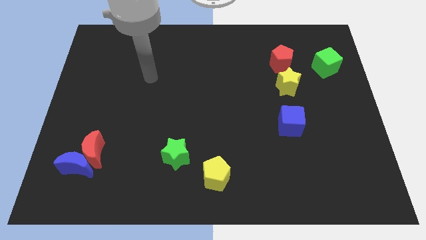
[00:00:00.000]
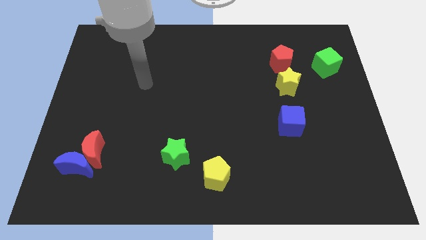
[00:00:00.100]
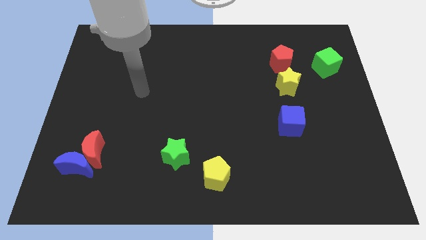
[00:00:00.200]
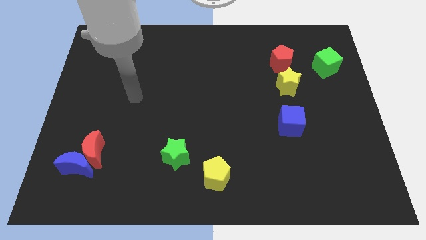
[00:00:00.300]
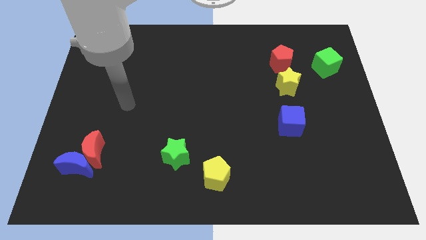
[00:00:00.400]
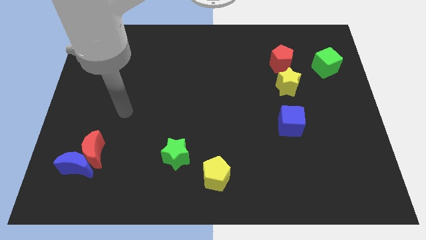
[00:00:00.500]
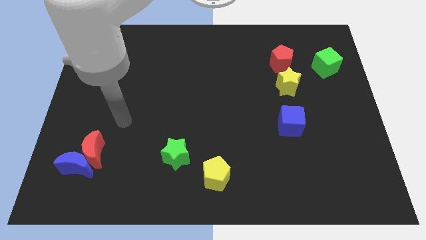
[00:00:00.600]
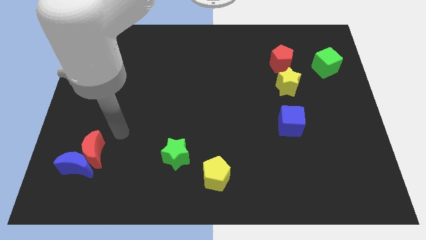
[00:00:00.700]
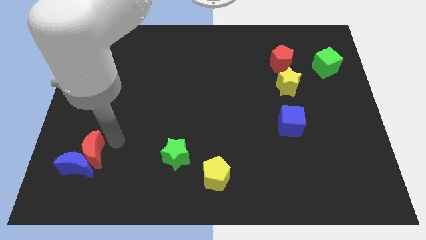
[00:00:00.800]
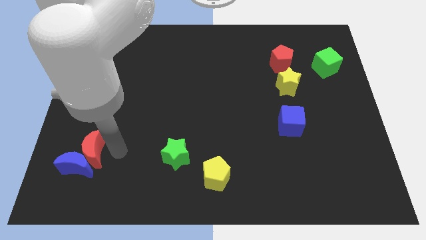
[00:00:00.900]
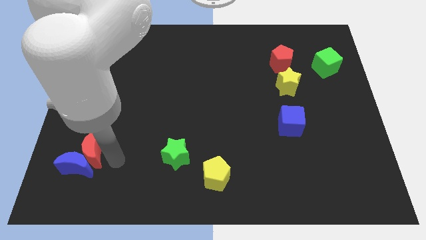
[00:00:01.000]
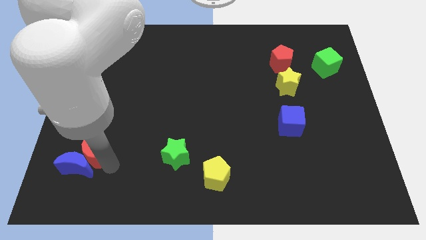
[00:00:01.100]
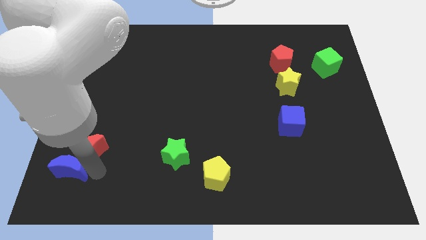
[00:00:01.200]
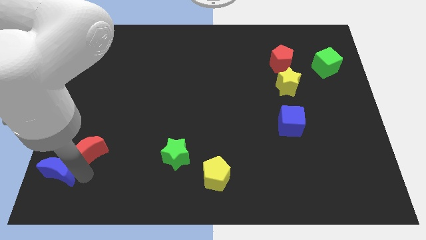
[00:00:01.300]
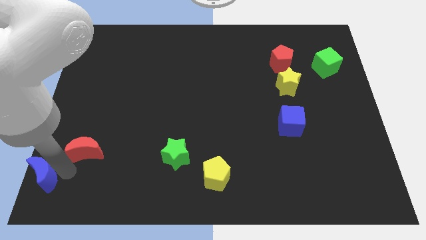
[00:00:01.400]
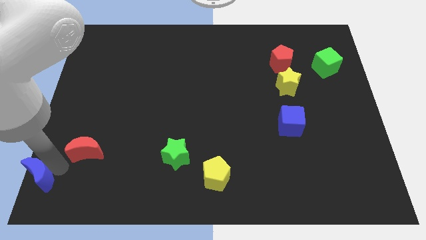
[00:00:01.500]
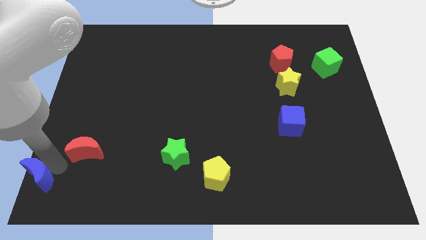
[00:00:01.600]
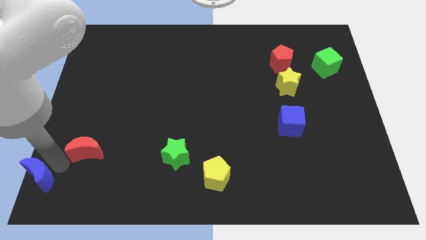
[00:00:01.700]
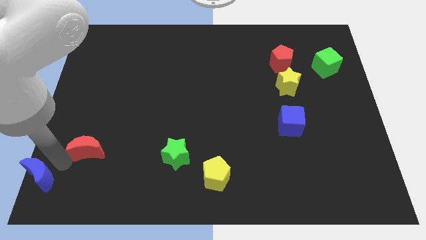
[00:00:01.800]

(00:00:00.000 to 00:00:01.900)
move the red moon away from the blue moon

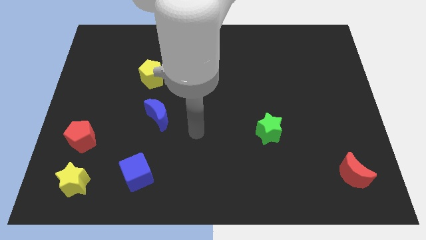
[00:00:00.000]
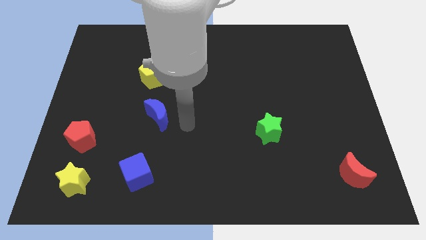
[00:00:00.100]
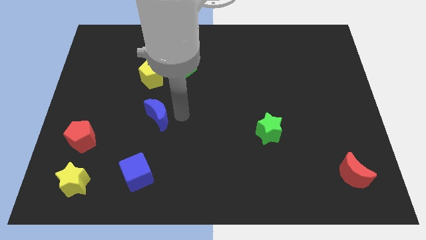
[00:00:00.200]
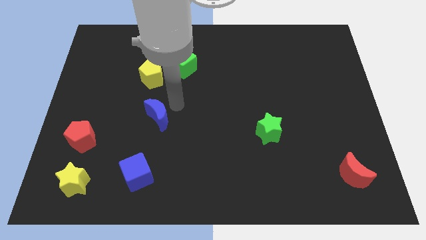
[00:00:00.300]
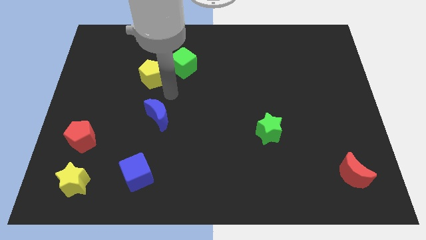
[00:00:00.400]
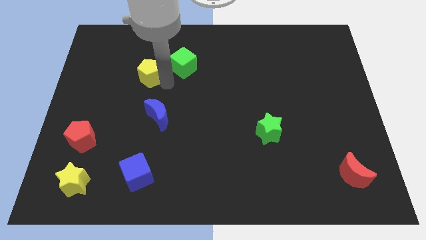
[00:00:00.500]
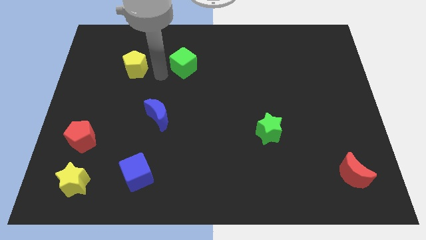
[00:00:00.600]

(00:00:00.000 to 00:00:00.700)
separate the green cube from the yellow pentagon

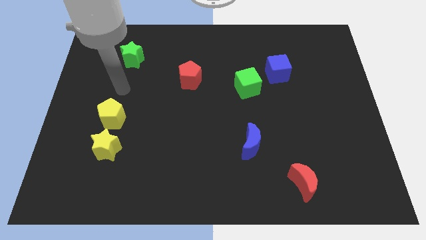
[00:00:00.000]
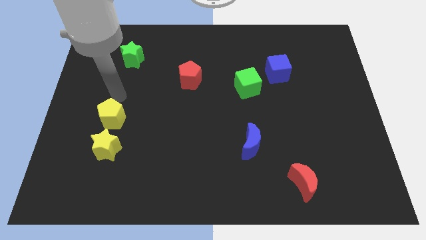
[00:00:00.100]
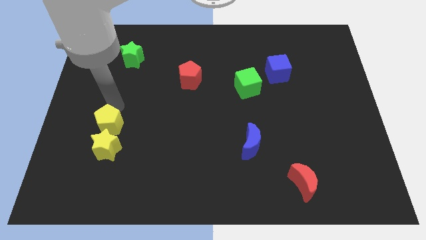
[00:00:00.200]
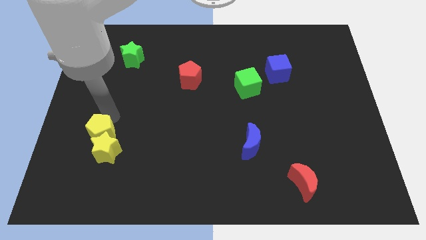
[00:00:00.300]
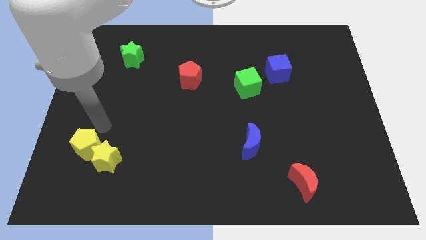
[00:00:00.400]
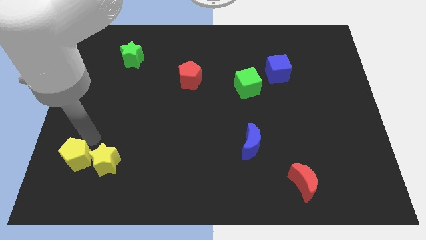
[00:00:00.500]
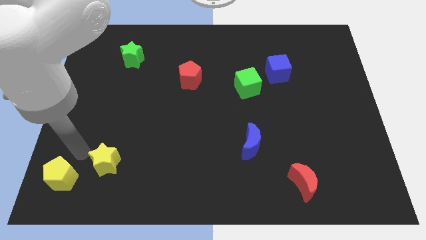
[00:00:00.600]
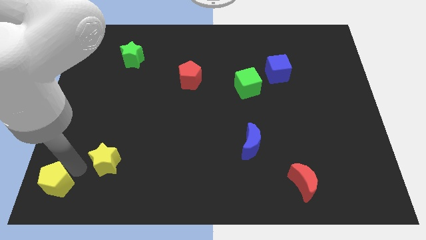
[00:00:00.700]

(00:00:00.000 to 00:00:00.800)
move the yellow star away from the yellow pentagon

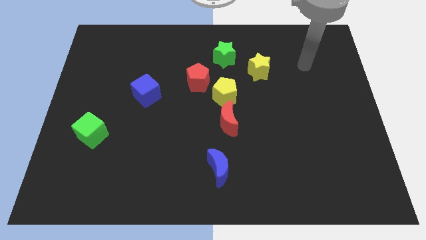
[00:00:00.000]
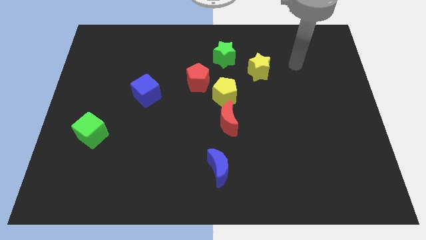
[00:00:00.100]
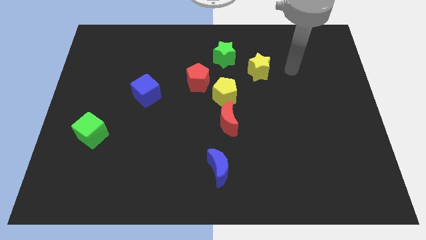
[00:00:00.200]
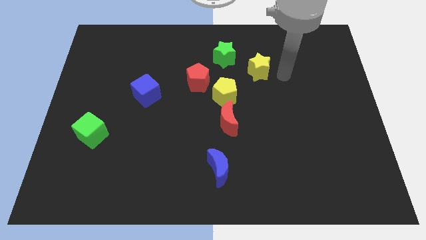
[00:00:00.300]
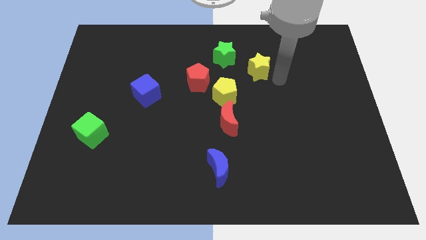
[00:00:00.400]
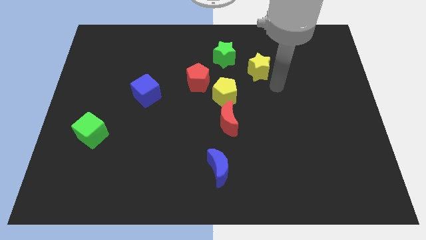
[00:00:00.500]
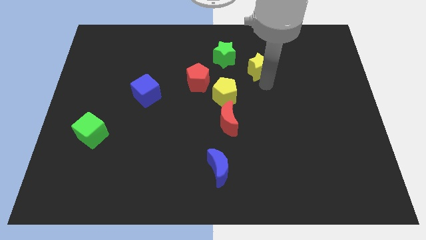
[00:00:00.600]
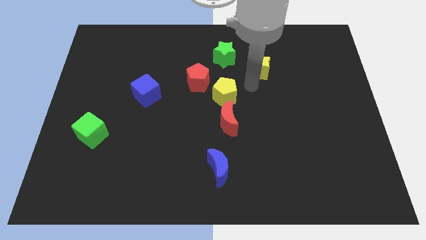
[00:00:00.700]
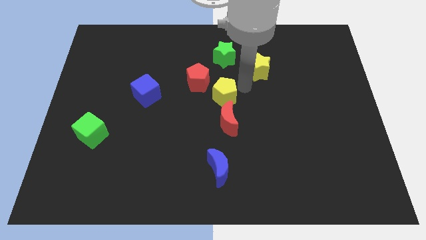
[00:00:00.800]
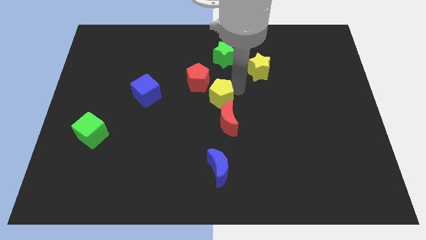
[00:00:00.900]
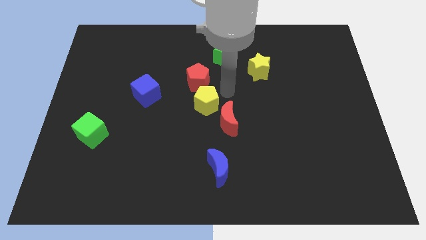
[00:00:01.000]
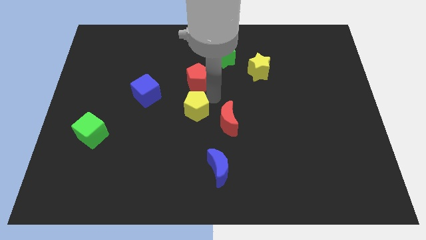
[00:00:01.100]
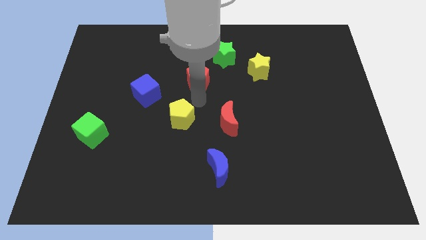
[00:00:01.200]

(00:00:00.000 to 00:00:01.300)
separate the red pentagon from the yellow pentagon

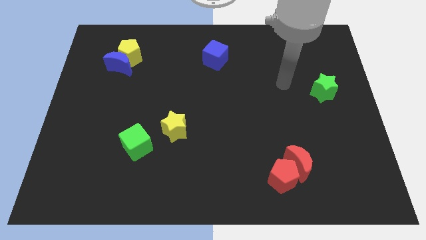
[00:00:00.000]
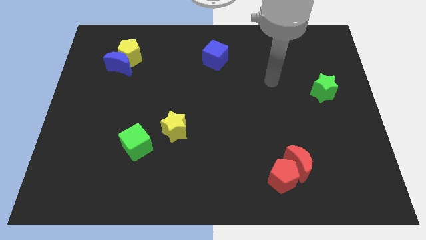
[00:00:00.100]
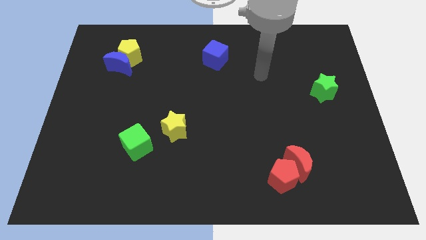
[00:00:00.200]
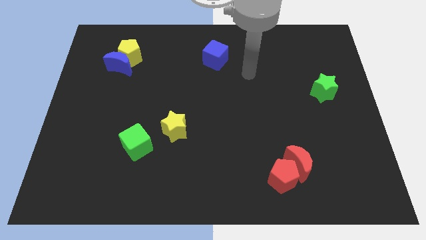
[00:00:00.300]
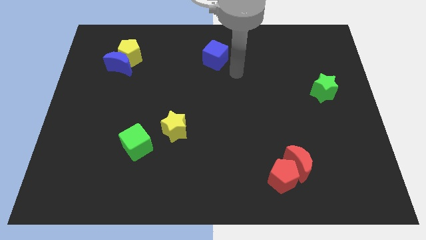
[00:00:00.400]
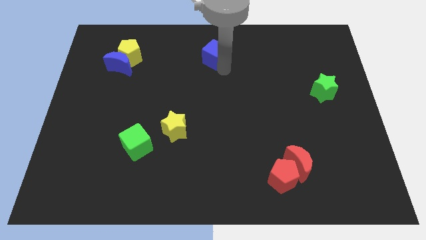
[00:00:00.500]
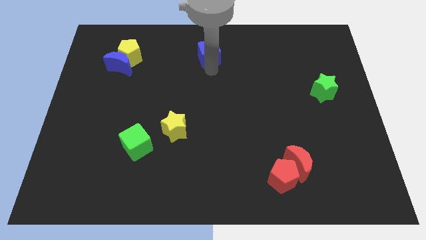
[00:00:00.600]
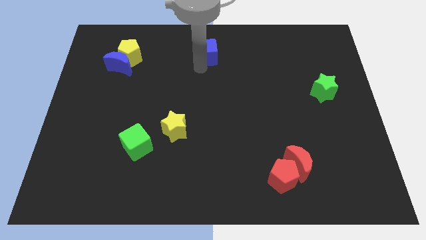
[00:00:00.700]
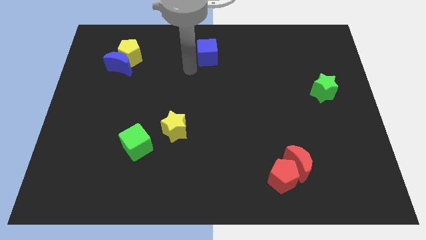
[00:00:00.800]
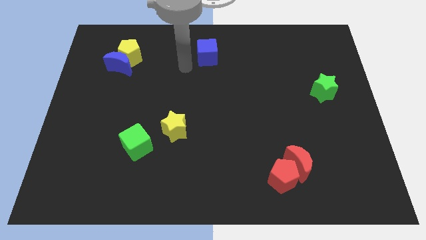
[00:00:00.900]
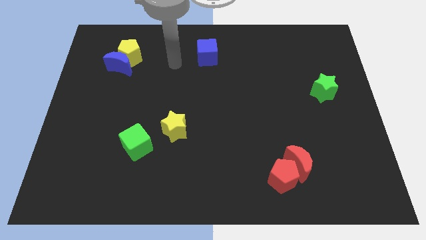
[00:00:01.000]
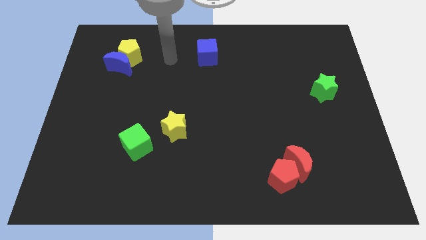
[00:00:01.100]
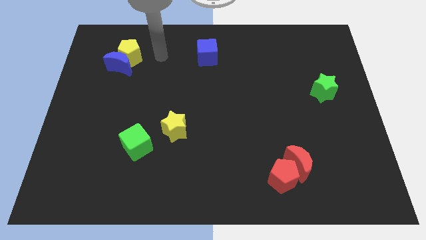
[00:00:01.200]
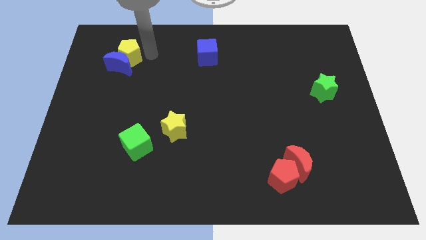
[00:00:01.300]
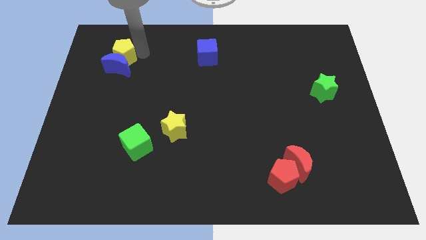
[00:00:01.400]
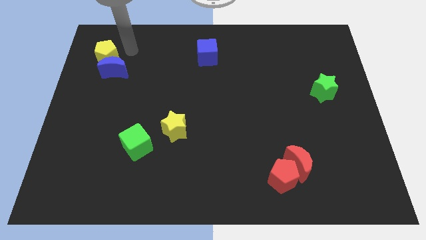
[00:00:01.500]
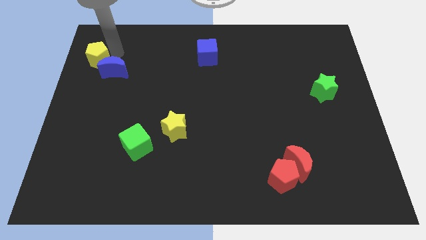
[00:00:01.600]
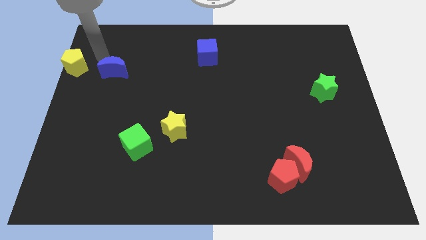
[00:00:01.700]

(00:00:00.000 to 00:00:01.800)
pull the blue moon apart from the yellow pentagon

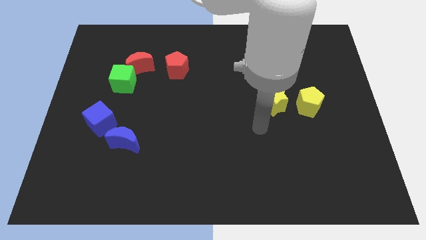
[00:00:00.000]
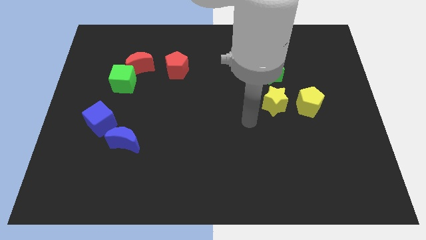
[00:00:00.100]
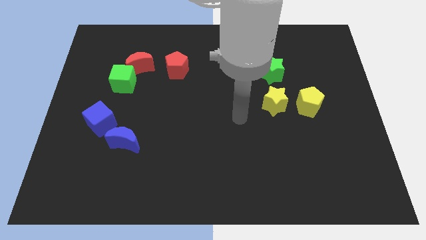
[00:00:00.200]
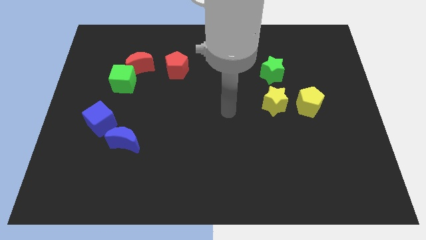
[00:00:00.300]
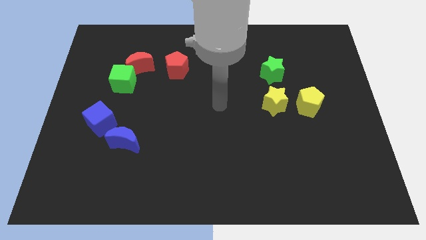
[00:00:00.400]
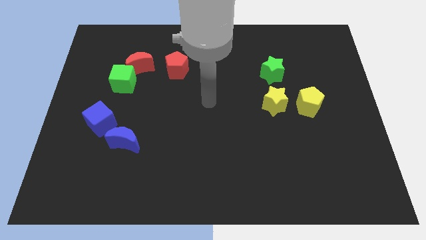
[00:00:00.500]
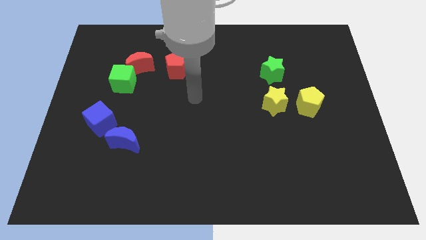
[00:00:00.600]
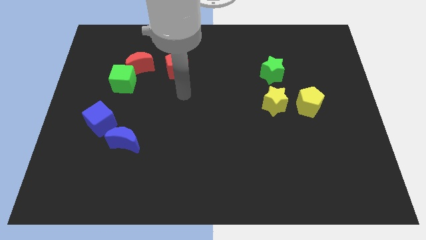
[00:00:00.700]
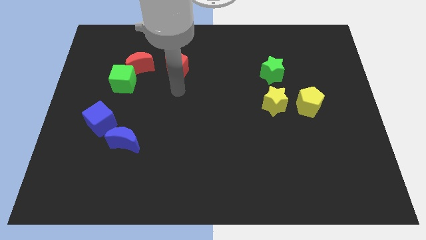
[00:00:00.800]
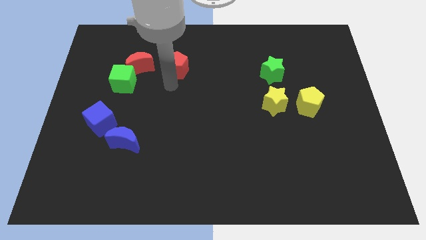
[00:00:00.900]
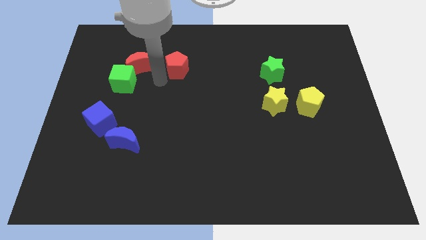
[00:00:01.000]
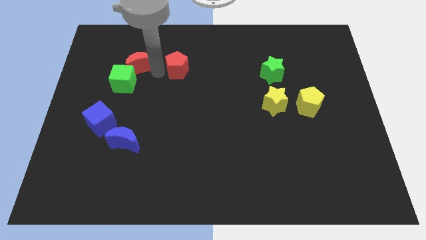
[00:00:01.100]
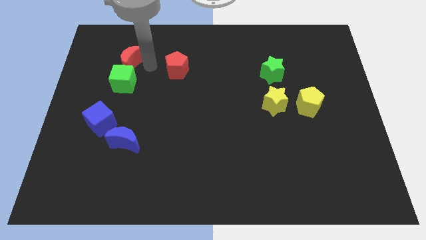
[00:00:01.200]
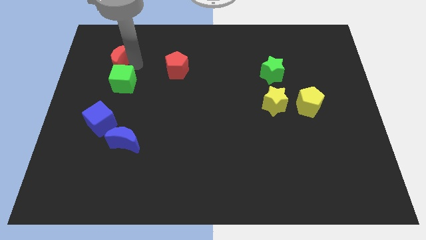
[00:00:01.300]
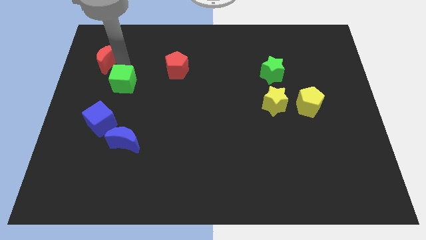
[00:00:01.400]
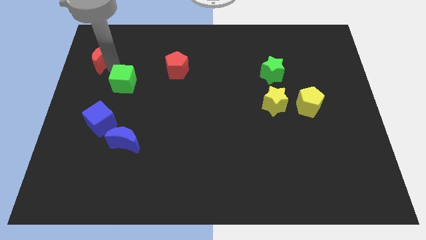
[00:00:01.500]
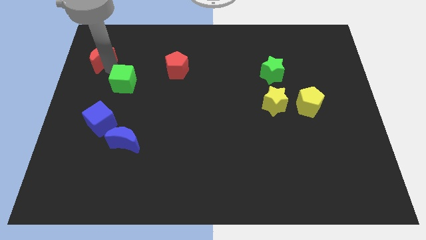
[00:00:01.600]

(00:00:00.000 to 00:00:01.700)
move the green cube away from the red moon

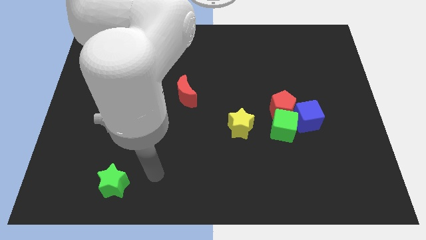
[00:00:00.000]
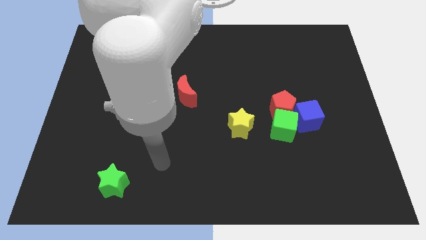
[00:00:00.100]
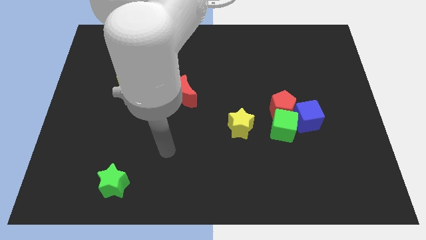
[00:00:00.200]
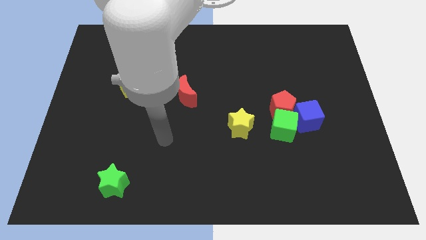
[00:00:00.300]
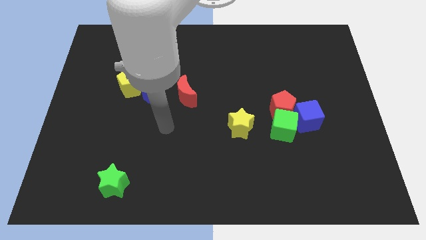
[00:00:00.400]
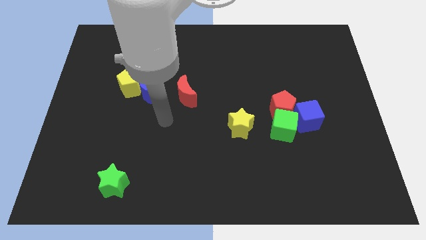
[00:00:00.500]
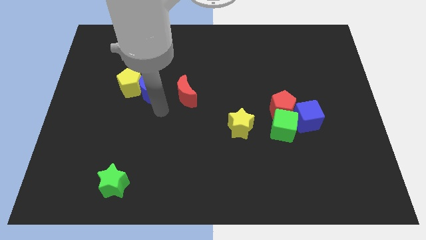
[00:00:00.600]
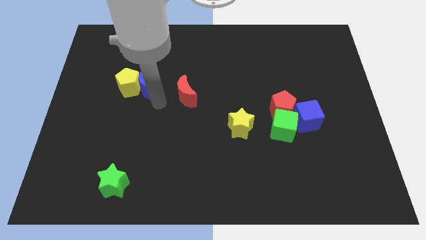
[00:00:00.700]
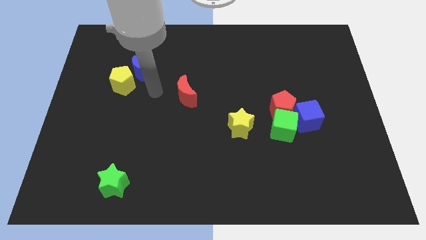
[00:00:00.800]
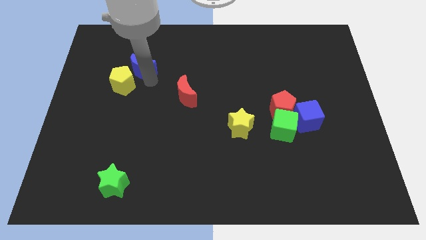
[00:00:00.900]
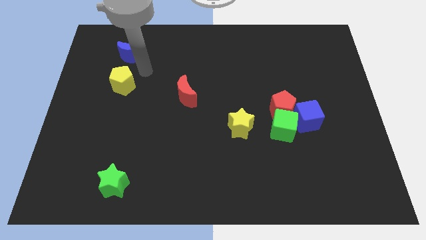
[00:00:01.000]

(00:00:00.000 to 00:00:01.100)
pull the yellow pentagon apart from the blue moon
